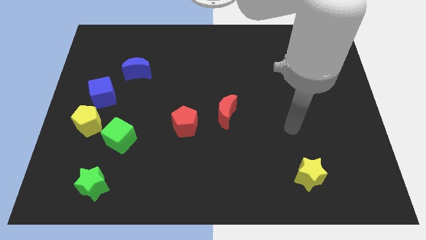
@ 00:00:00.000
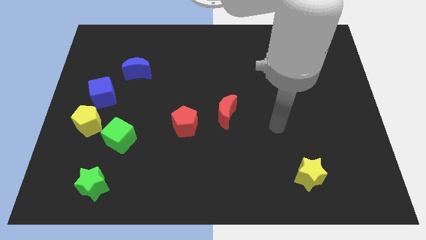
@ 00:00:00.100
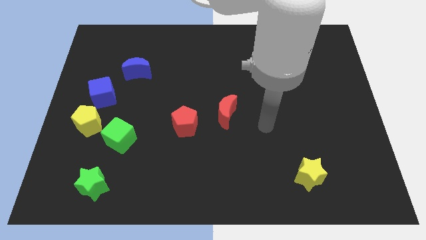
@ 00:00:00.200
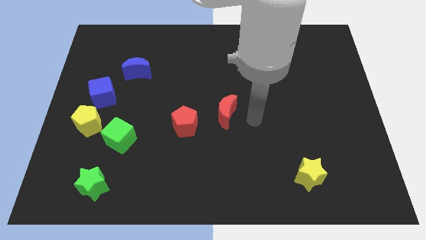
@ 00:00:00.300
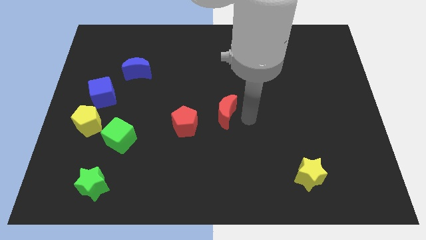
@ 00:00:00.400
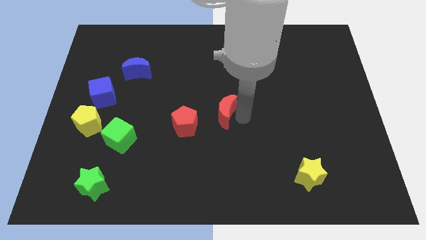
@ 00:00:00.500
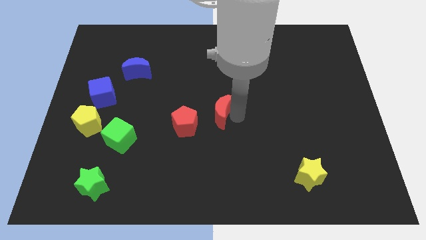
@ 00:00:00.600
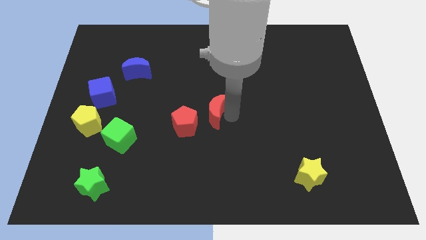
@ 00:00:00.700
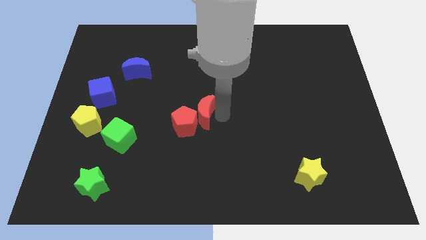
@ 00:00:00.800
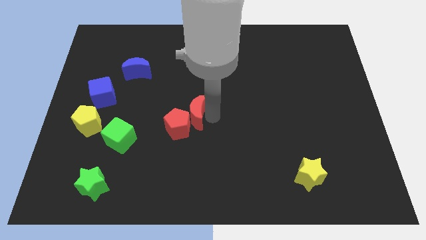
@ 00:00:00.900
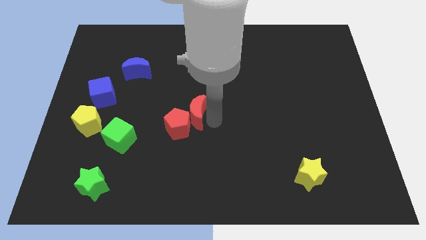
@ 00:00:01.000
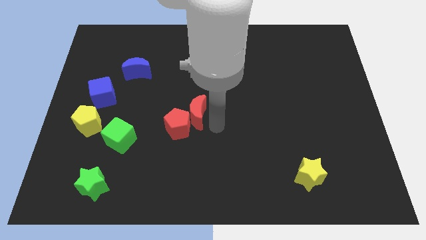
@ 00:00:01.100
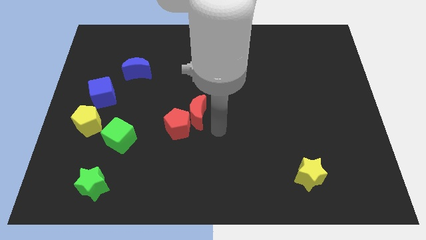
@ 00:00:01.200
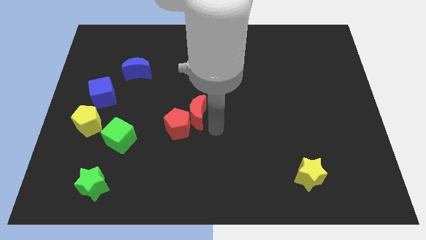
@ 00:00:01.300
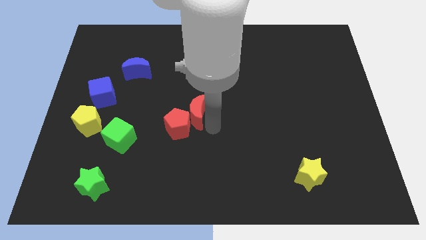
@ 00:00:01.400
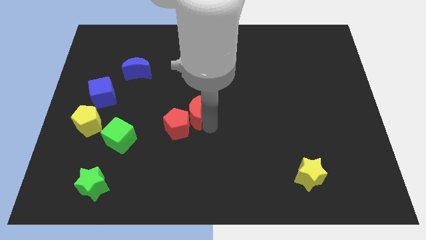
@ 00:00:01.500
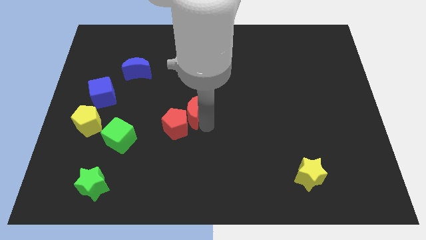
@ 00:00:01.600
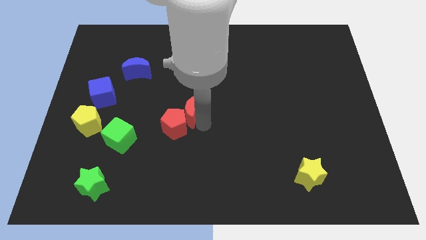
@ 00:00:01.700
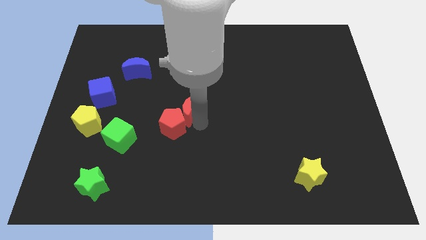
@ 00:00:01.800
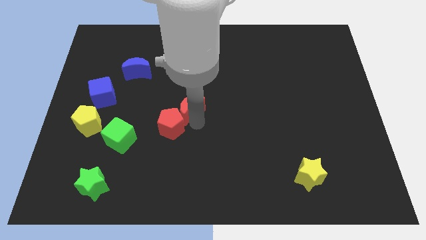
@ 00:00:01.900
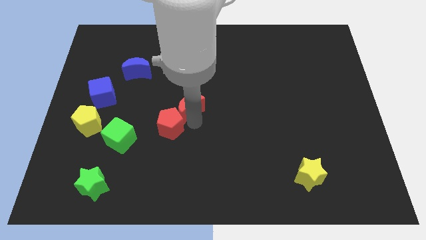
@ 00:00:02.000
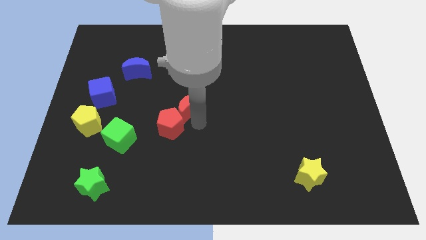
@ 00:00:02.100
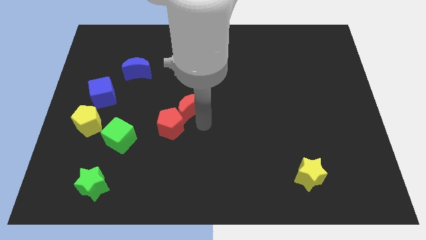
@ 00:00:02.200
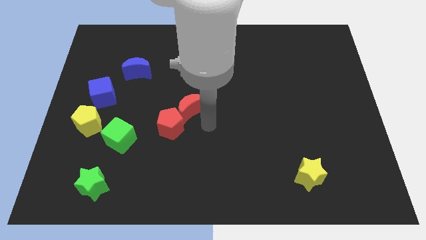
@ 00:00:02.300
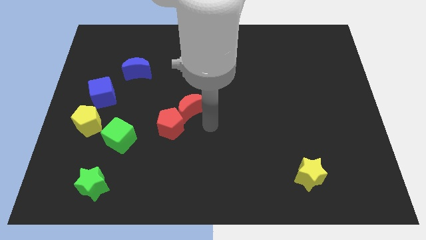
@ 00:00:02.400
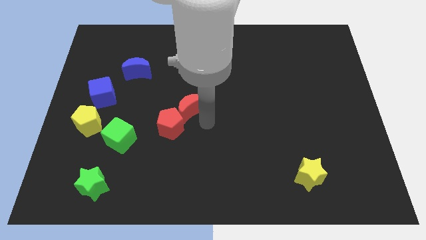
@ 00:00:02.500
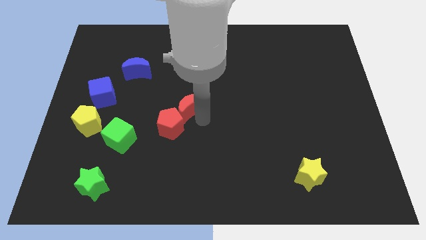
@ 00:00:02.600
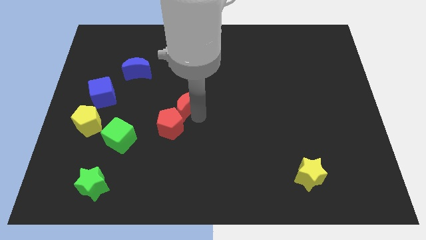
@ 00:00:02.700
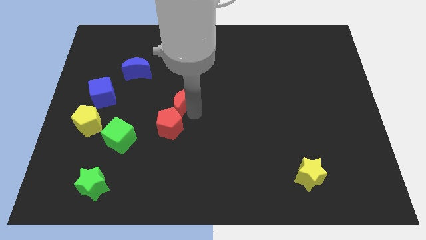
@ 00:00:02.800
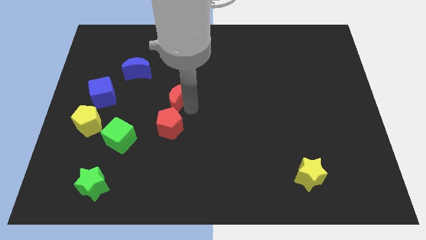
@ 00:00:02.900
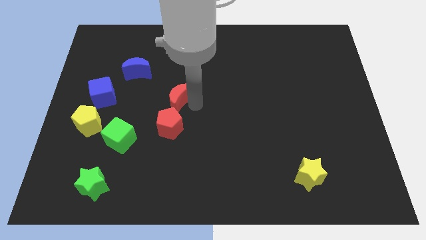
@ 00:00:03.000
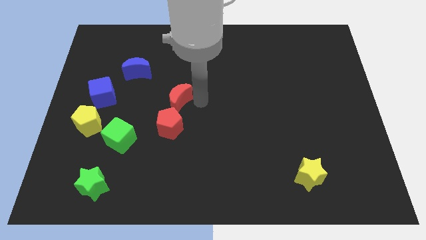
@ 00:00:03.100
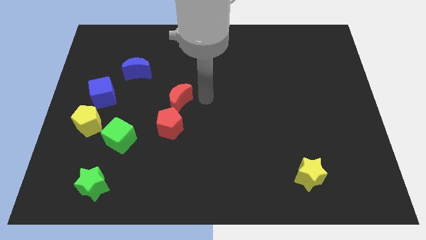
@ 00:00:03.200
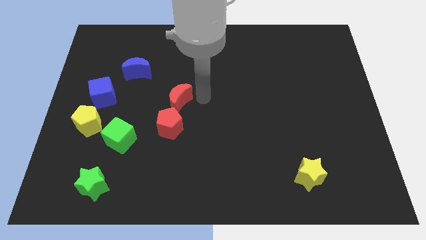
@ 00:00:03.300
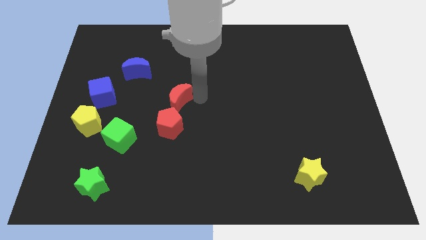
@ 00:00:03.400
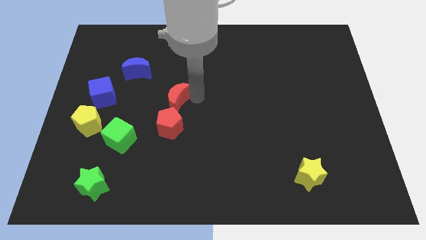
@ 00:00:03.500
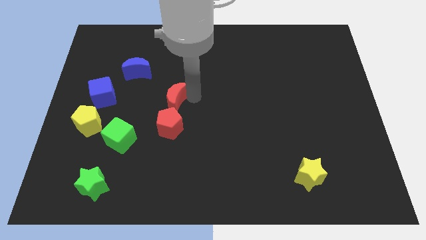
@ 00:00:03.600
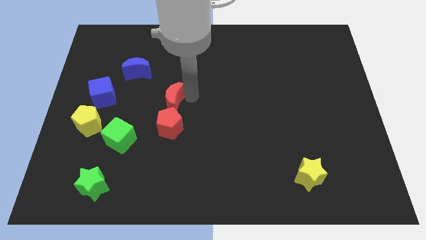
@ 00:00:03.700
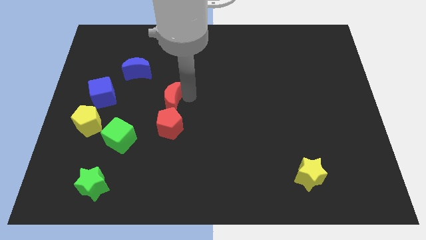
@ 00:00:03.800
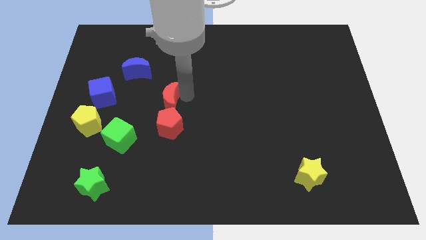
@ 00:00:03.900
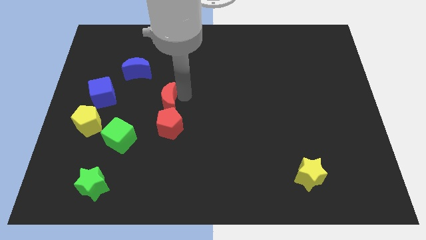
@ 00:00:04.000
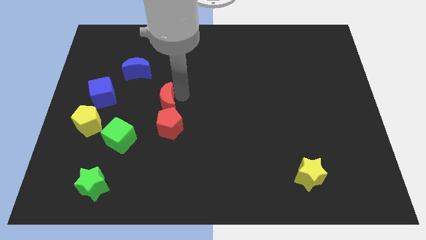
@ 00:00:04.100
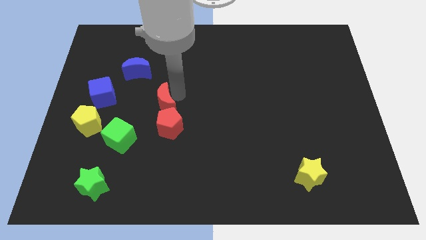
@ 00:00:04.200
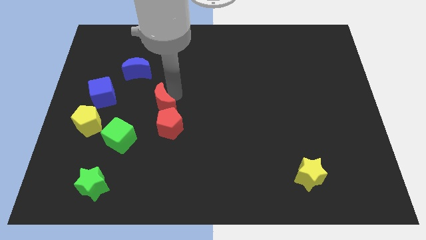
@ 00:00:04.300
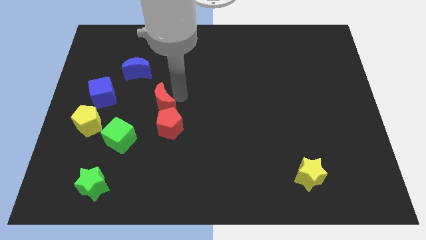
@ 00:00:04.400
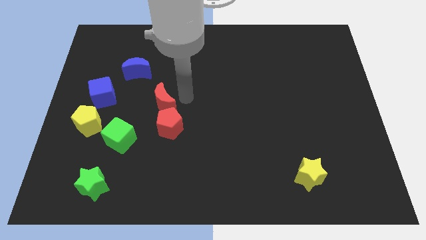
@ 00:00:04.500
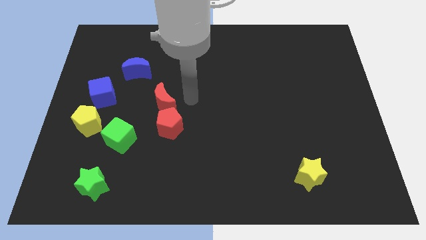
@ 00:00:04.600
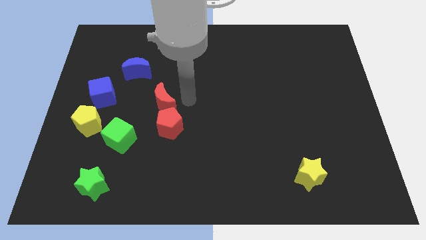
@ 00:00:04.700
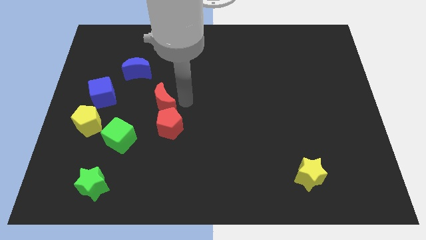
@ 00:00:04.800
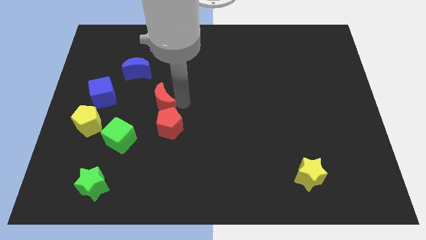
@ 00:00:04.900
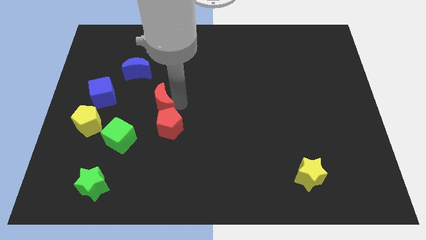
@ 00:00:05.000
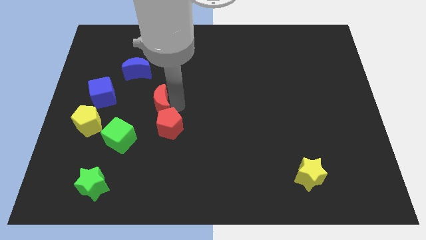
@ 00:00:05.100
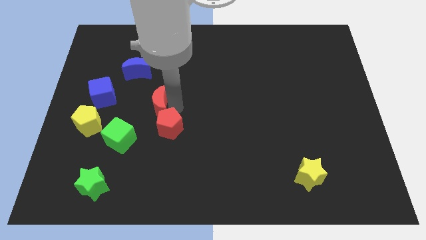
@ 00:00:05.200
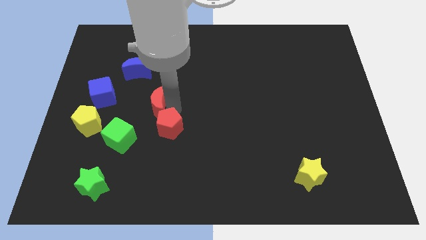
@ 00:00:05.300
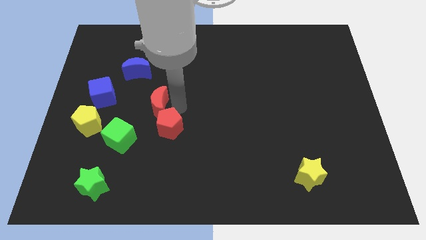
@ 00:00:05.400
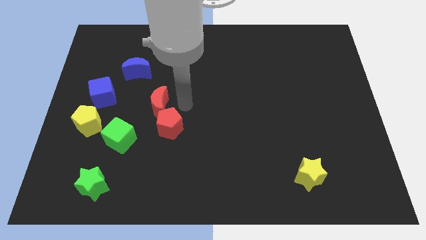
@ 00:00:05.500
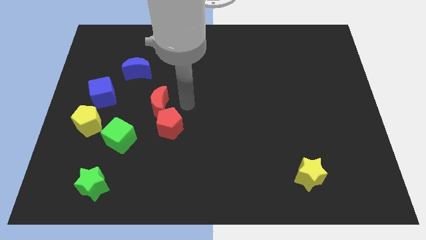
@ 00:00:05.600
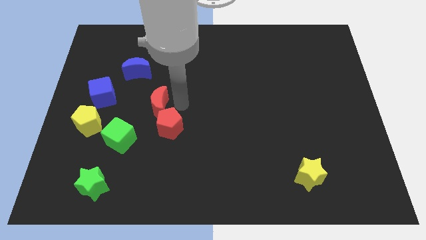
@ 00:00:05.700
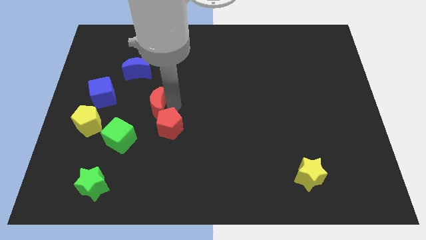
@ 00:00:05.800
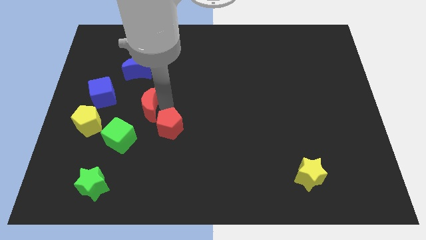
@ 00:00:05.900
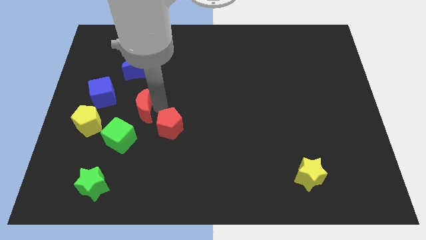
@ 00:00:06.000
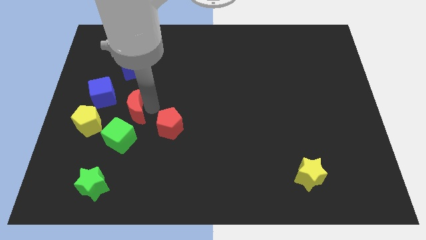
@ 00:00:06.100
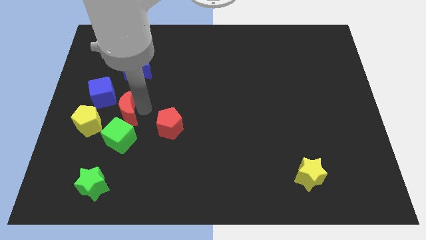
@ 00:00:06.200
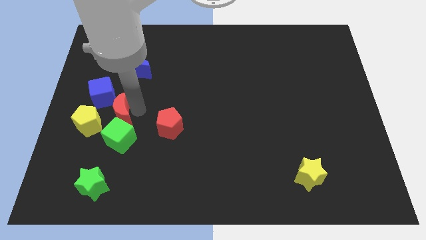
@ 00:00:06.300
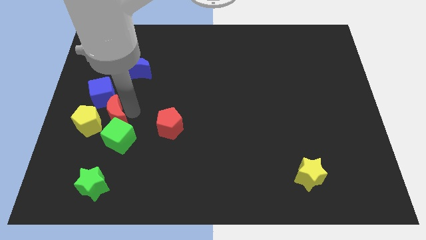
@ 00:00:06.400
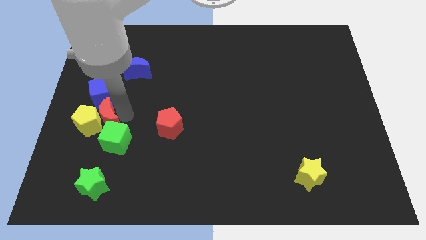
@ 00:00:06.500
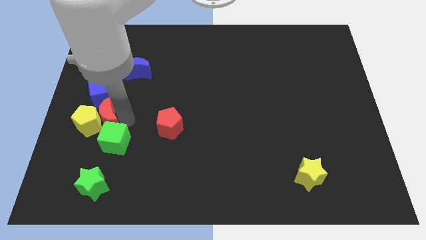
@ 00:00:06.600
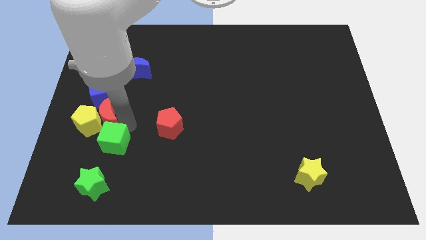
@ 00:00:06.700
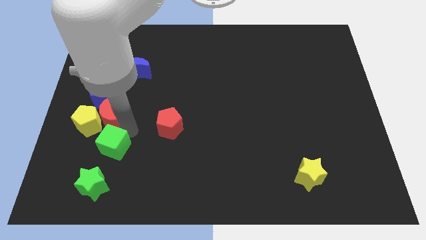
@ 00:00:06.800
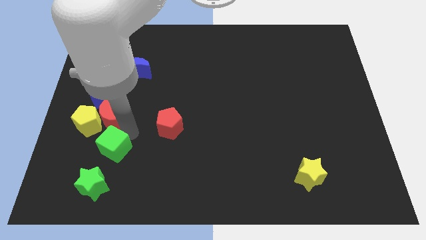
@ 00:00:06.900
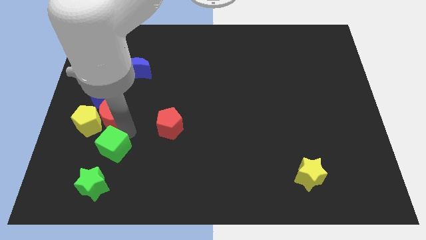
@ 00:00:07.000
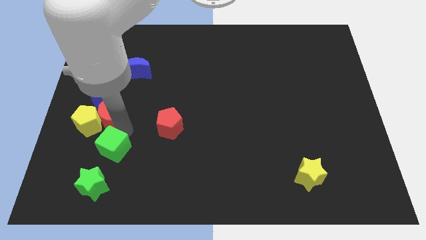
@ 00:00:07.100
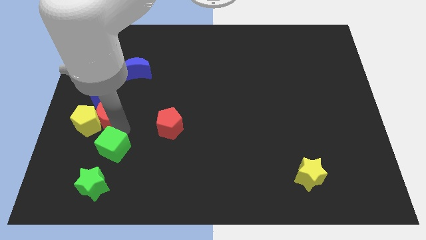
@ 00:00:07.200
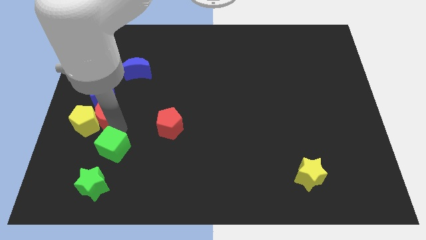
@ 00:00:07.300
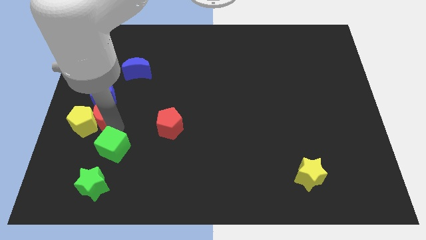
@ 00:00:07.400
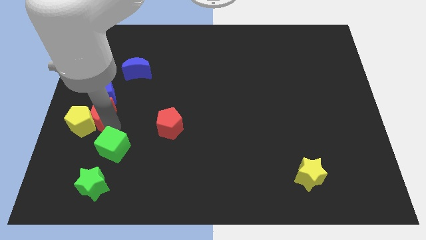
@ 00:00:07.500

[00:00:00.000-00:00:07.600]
move the red moon to the center left

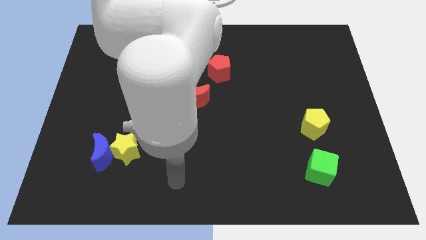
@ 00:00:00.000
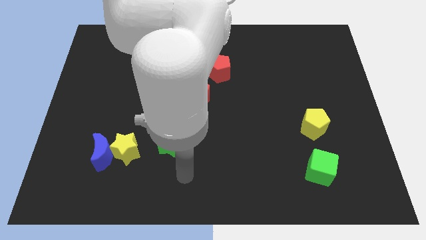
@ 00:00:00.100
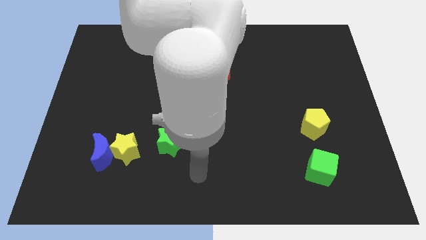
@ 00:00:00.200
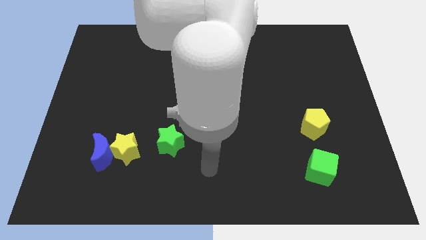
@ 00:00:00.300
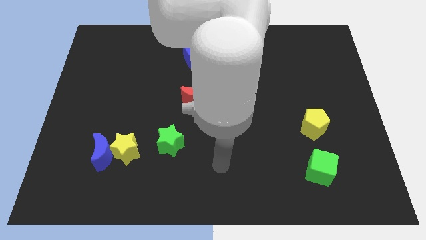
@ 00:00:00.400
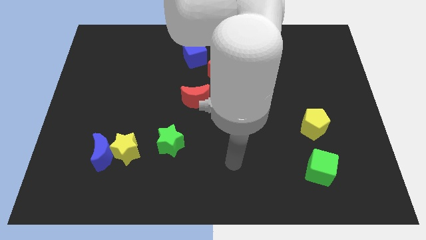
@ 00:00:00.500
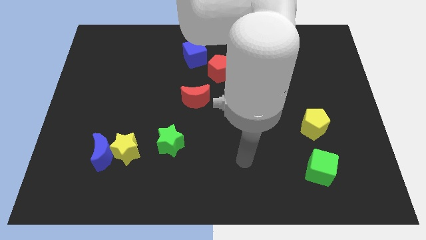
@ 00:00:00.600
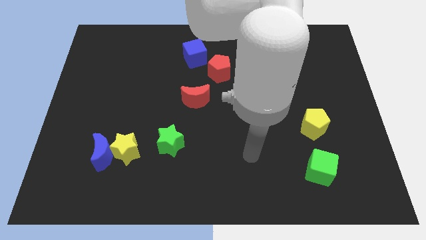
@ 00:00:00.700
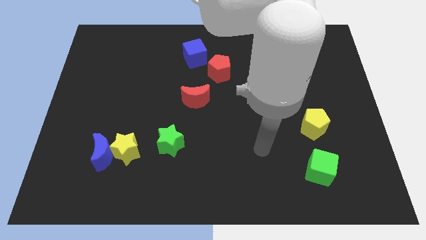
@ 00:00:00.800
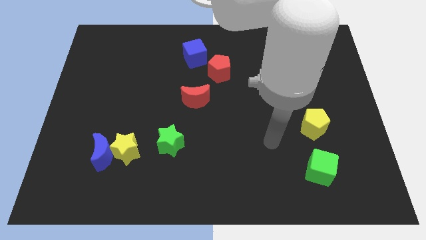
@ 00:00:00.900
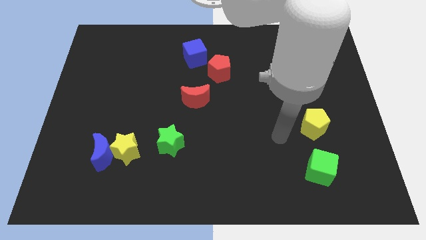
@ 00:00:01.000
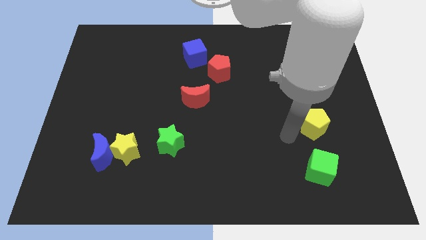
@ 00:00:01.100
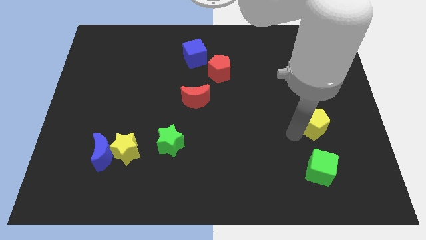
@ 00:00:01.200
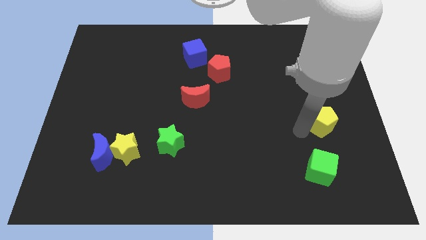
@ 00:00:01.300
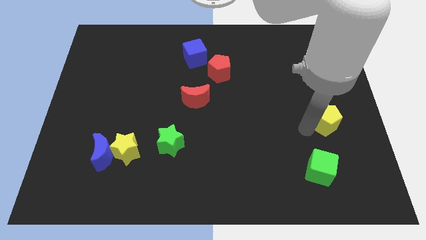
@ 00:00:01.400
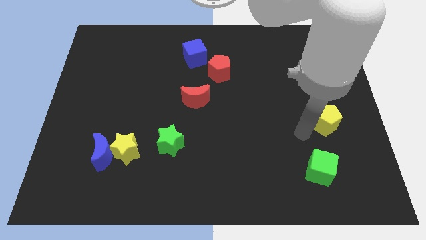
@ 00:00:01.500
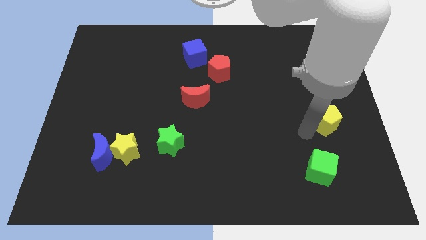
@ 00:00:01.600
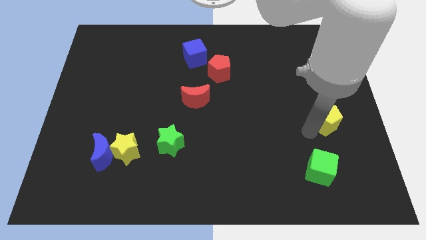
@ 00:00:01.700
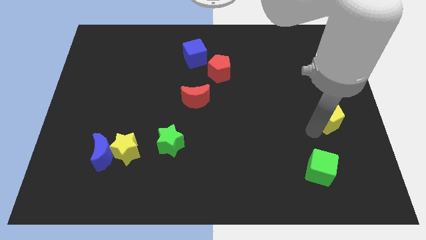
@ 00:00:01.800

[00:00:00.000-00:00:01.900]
push the yellow pentagon to the center right
